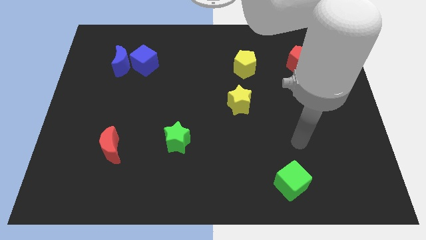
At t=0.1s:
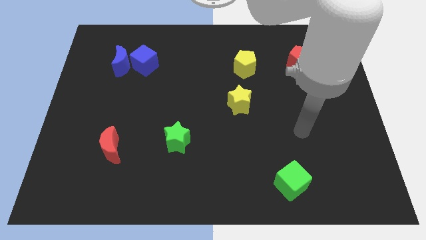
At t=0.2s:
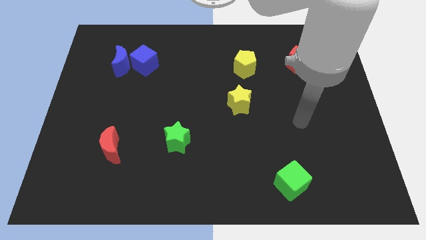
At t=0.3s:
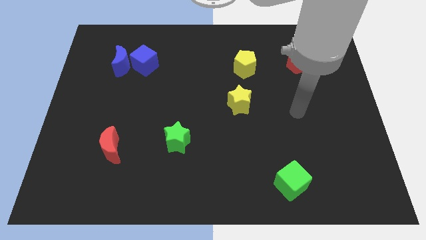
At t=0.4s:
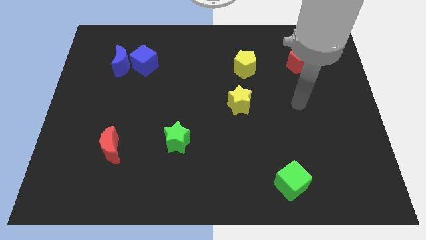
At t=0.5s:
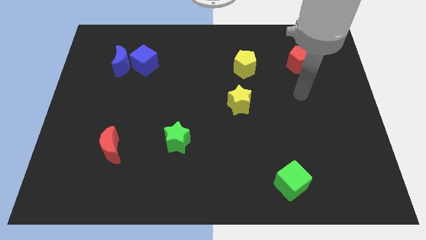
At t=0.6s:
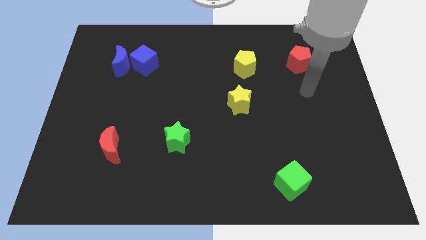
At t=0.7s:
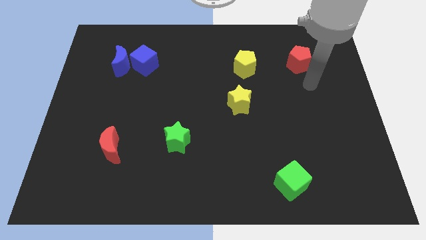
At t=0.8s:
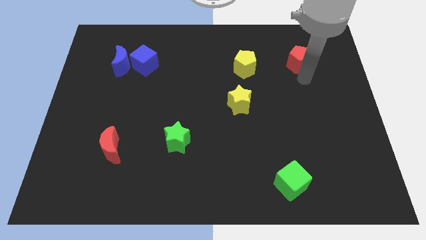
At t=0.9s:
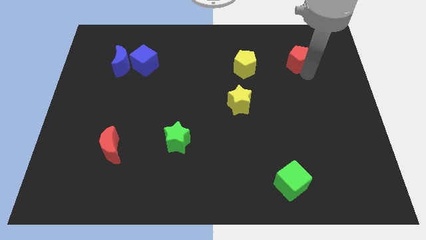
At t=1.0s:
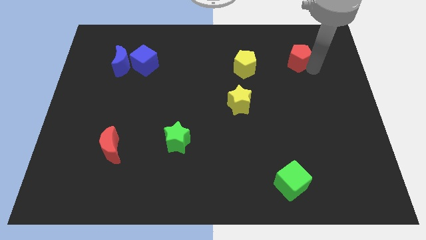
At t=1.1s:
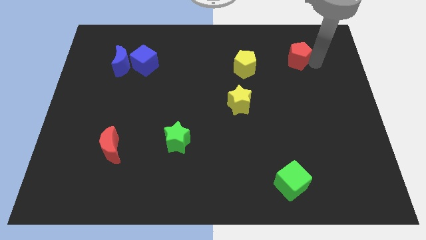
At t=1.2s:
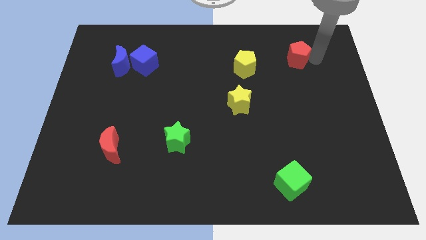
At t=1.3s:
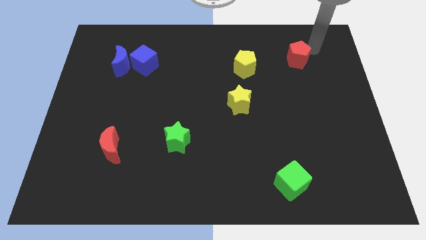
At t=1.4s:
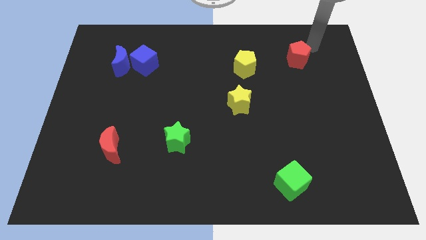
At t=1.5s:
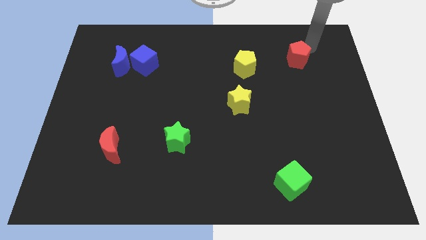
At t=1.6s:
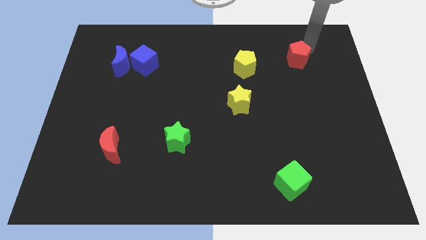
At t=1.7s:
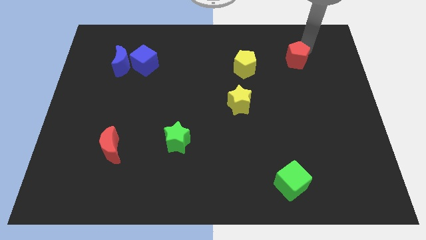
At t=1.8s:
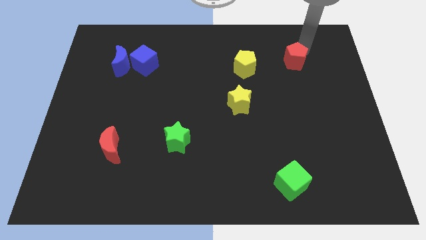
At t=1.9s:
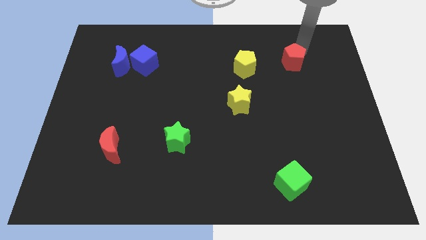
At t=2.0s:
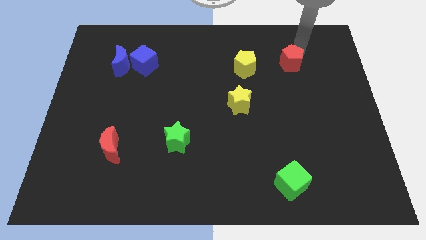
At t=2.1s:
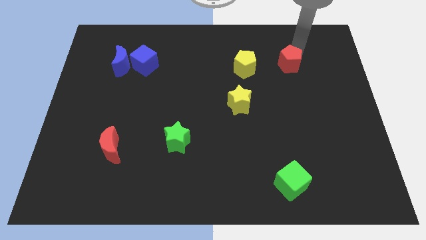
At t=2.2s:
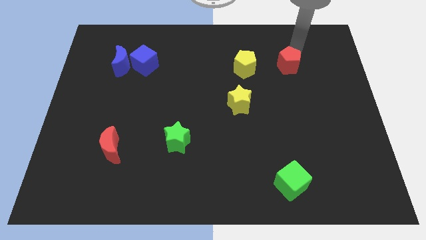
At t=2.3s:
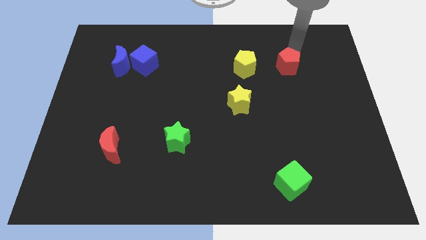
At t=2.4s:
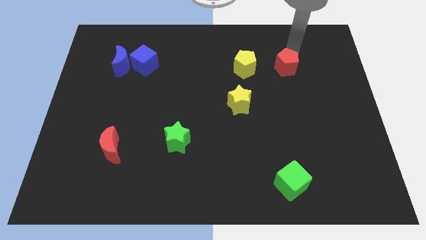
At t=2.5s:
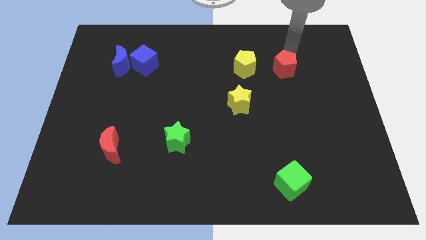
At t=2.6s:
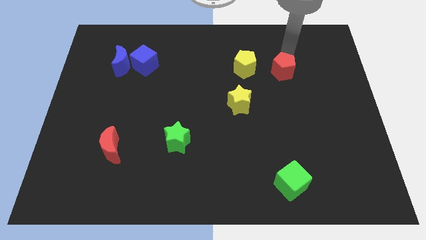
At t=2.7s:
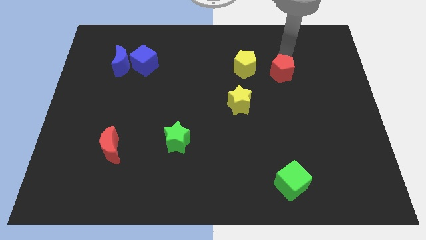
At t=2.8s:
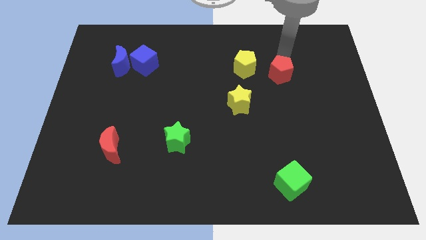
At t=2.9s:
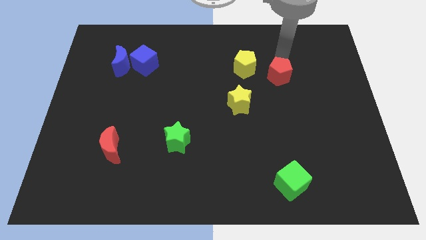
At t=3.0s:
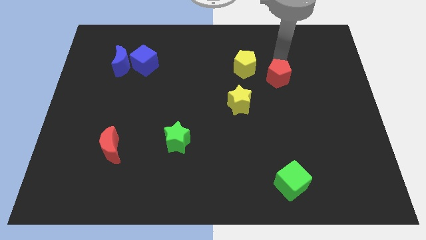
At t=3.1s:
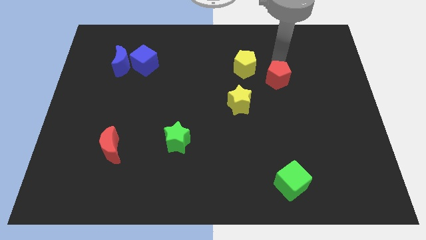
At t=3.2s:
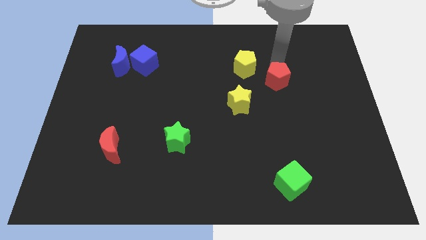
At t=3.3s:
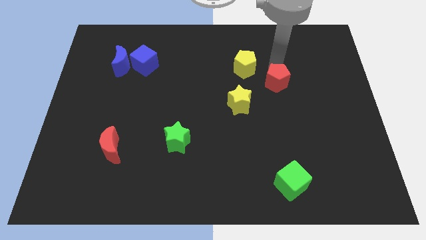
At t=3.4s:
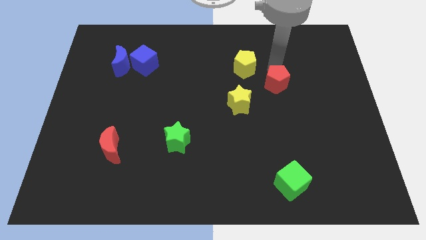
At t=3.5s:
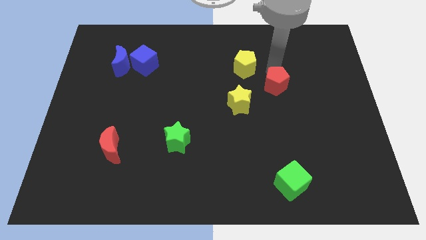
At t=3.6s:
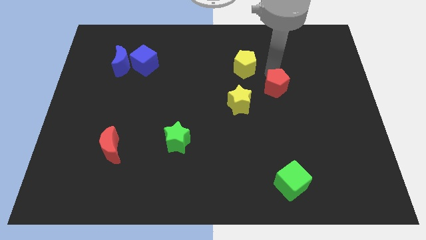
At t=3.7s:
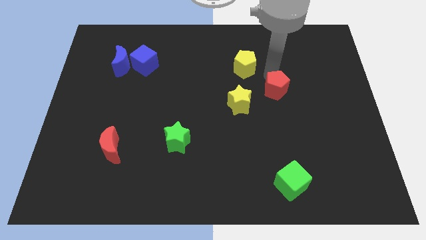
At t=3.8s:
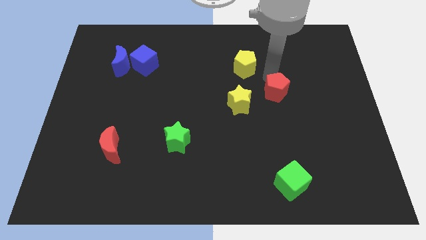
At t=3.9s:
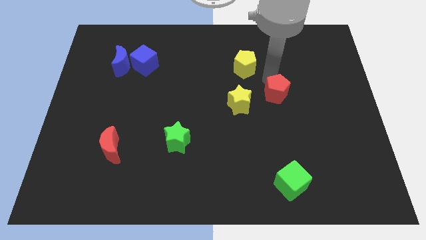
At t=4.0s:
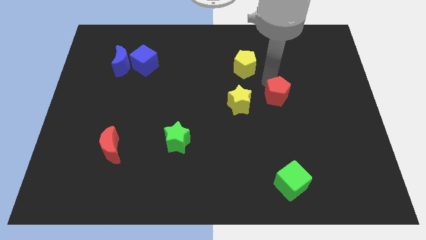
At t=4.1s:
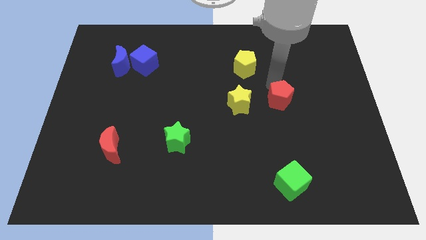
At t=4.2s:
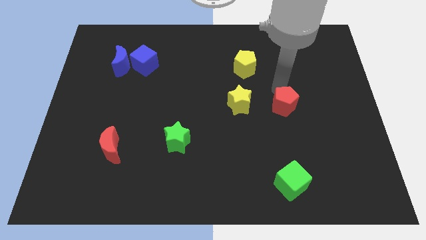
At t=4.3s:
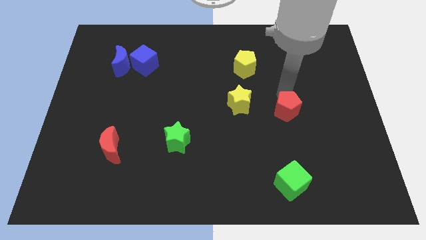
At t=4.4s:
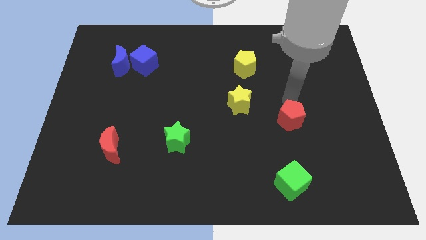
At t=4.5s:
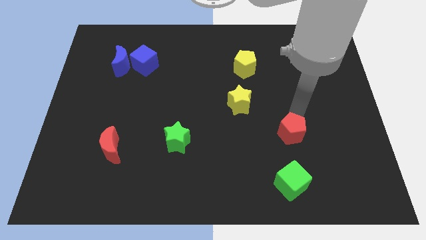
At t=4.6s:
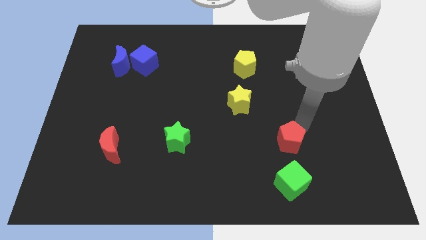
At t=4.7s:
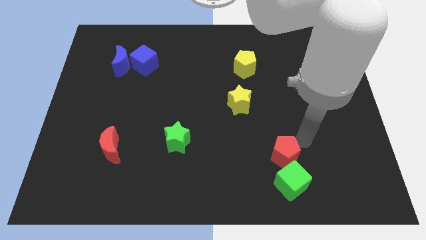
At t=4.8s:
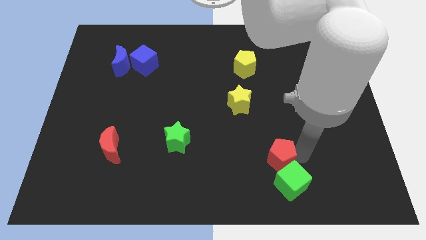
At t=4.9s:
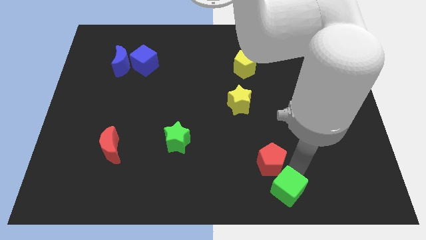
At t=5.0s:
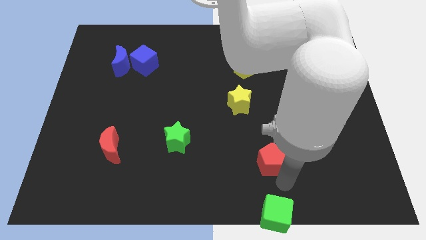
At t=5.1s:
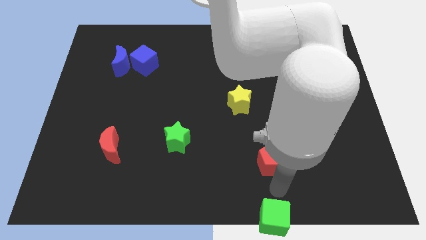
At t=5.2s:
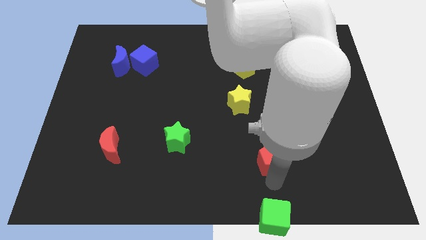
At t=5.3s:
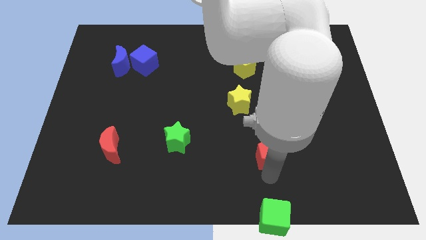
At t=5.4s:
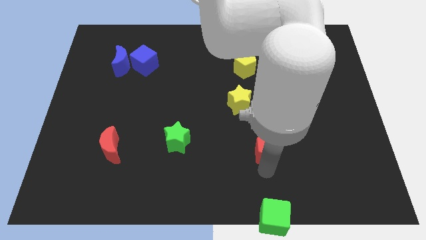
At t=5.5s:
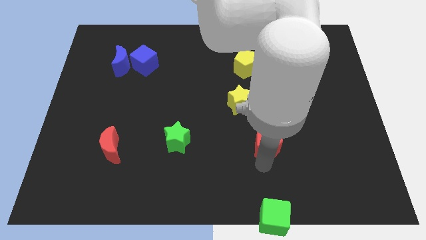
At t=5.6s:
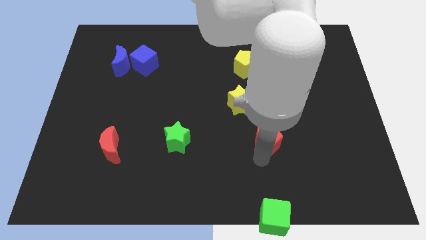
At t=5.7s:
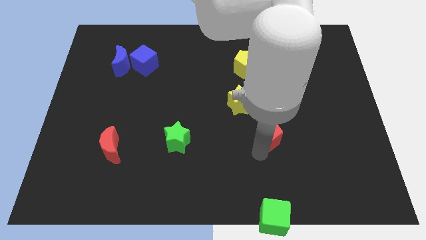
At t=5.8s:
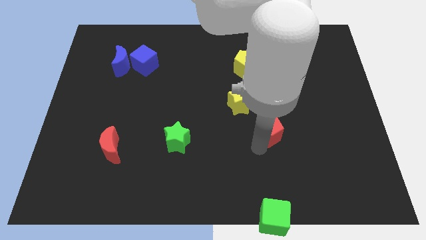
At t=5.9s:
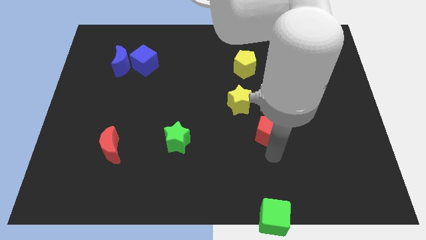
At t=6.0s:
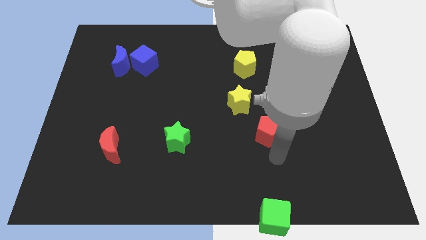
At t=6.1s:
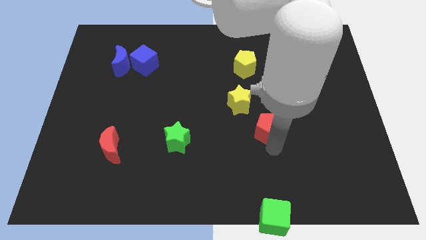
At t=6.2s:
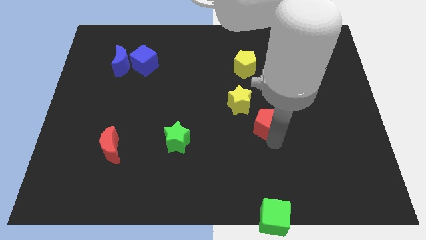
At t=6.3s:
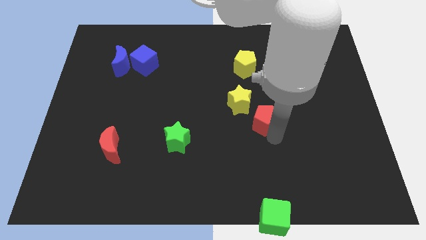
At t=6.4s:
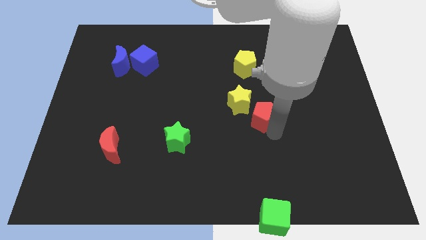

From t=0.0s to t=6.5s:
slide the red pentagon to the middle
